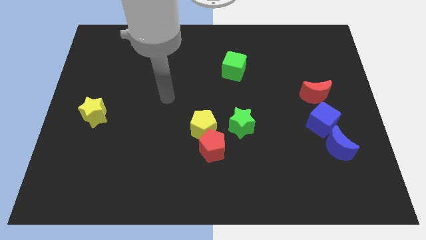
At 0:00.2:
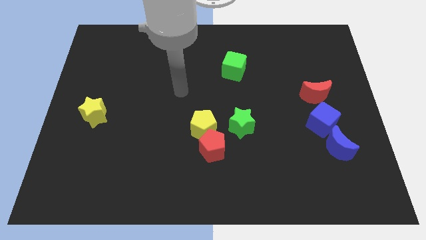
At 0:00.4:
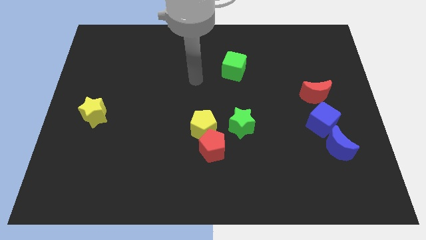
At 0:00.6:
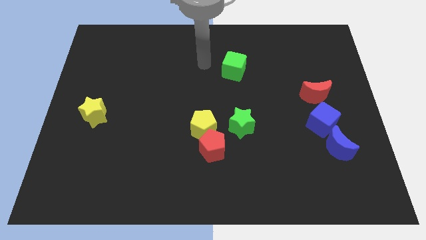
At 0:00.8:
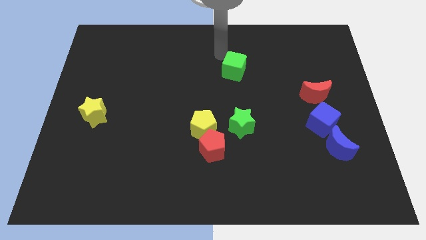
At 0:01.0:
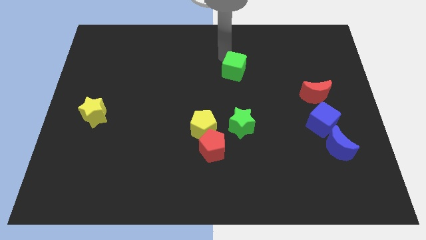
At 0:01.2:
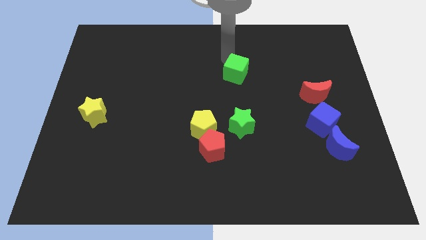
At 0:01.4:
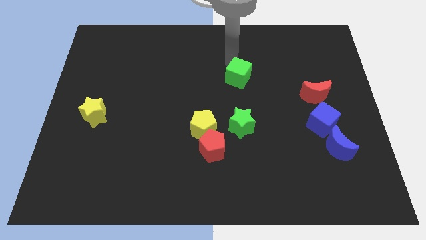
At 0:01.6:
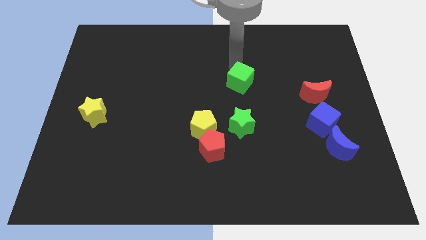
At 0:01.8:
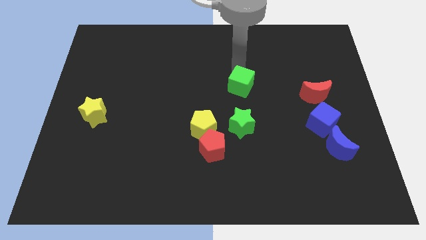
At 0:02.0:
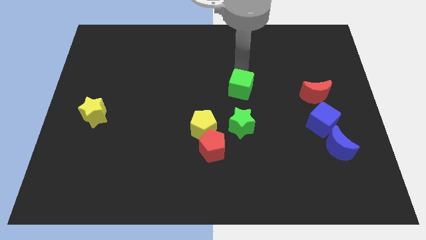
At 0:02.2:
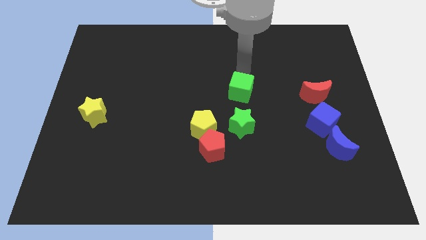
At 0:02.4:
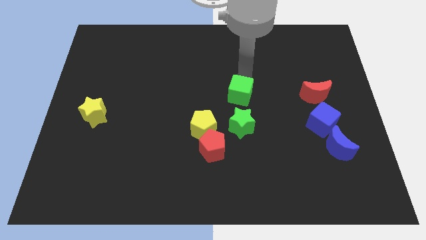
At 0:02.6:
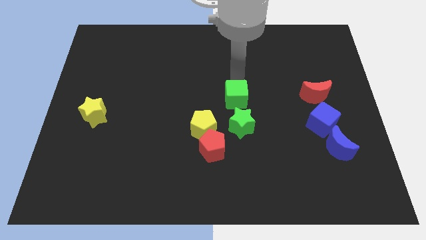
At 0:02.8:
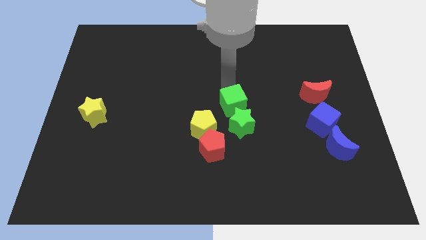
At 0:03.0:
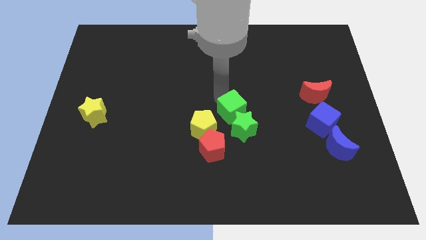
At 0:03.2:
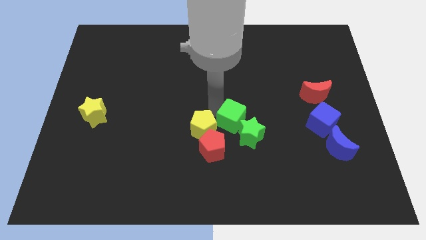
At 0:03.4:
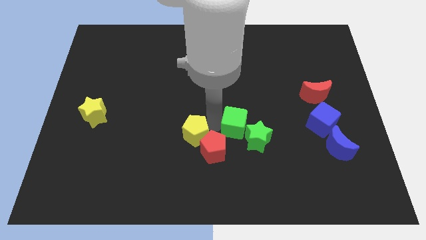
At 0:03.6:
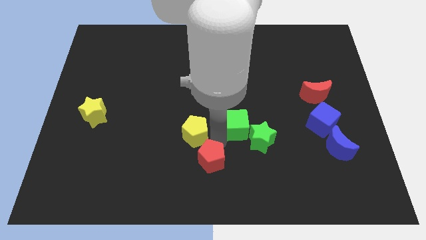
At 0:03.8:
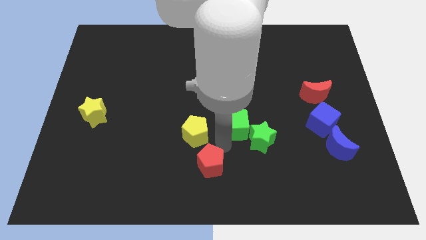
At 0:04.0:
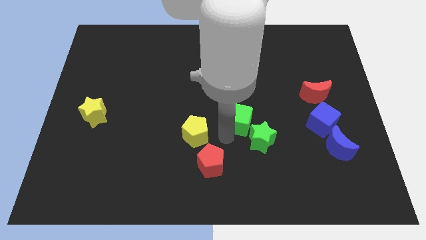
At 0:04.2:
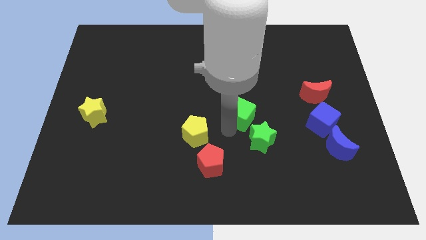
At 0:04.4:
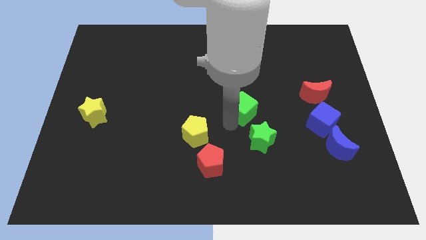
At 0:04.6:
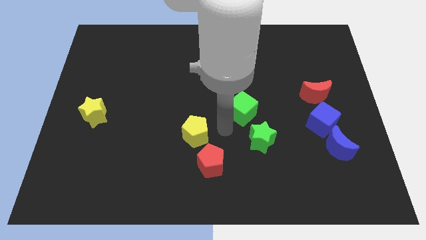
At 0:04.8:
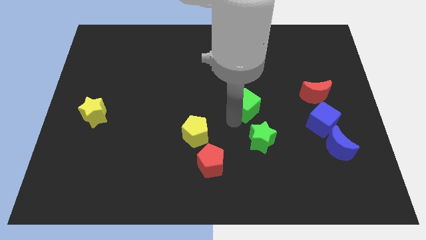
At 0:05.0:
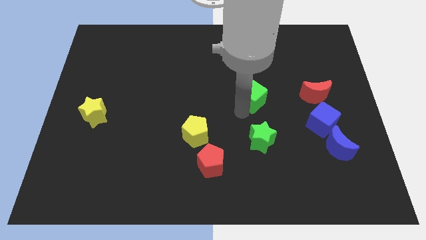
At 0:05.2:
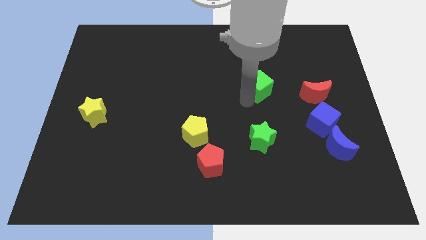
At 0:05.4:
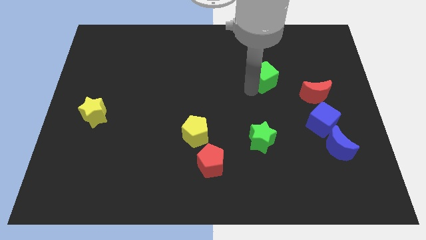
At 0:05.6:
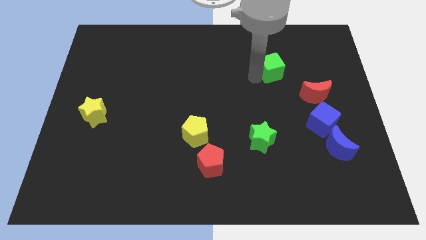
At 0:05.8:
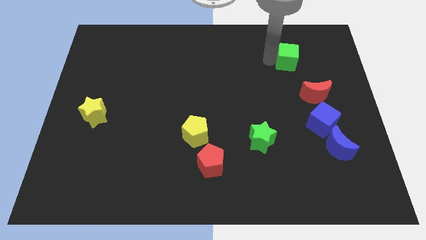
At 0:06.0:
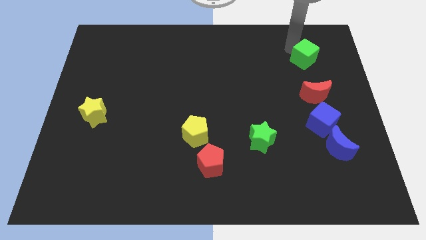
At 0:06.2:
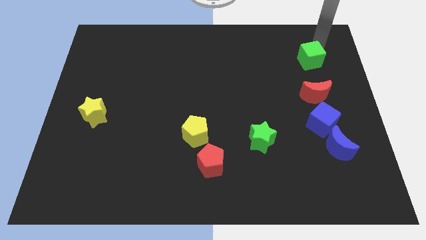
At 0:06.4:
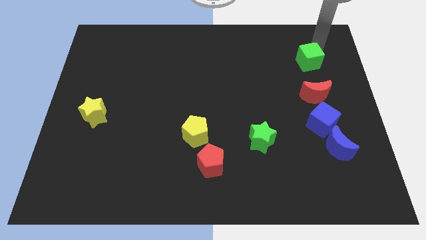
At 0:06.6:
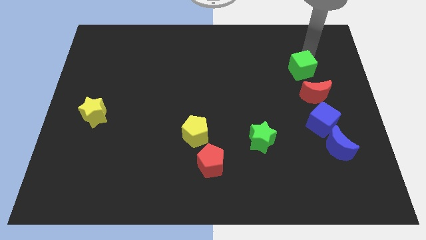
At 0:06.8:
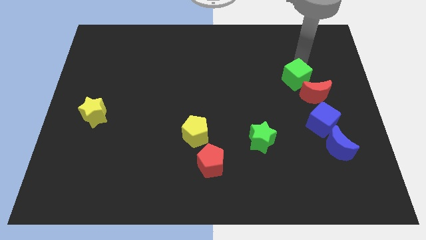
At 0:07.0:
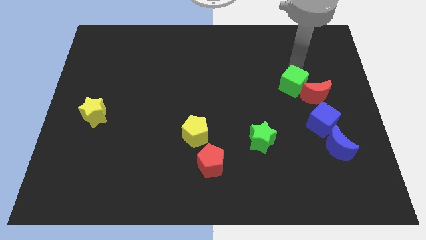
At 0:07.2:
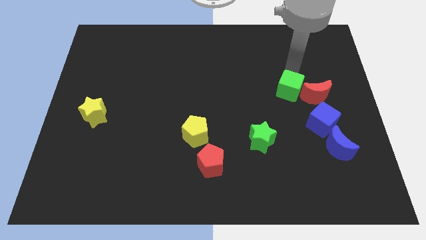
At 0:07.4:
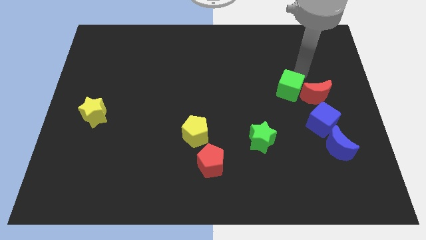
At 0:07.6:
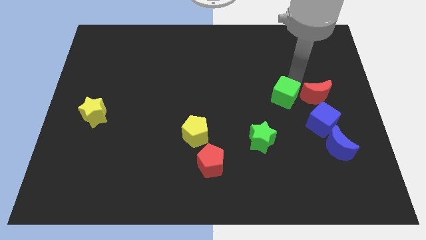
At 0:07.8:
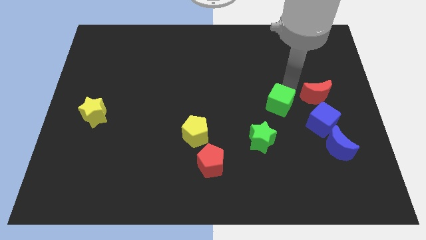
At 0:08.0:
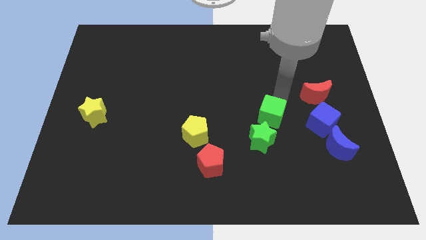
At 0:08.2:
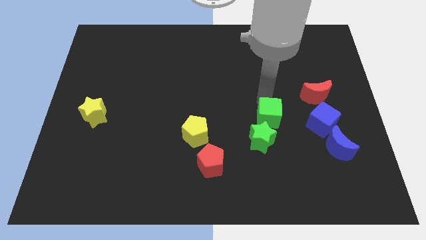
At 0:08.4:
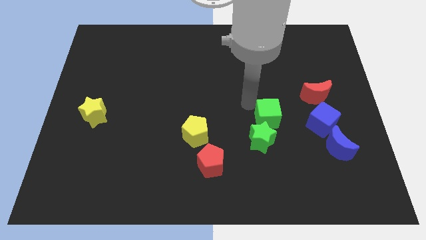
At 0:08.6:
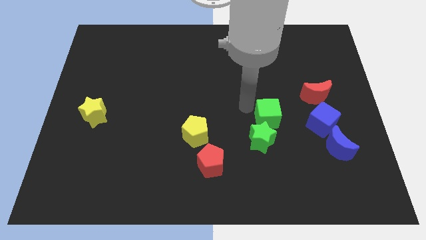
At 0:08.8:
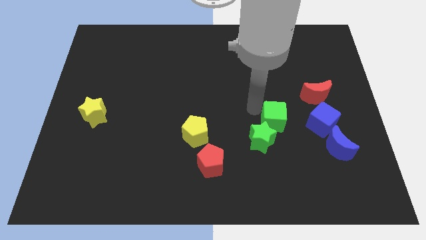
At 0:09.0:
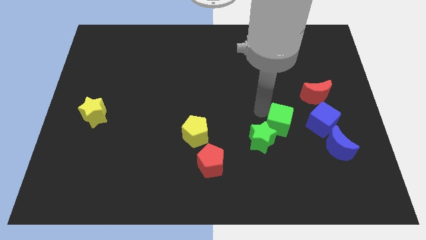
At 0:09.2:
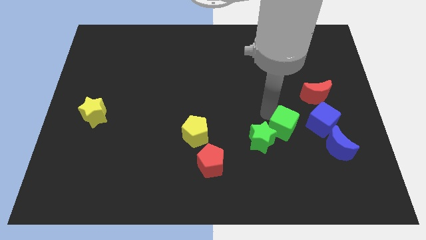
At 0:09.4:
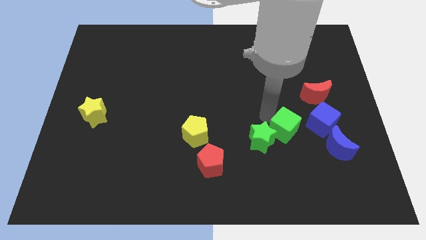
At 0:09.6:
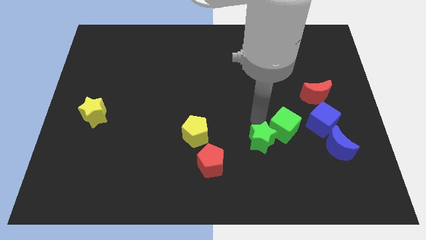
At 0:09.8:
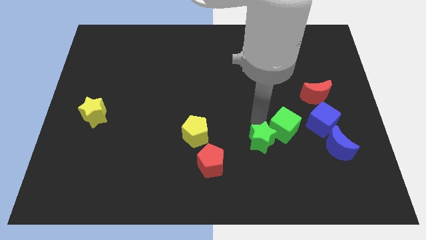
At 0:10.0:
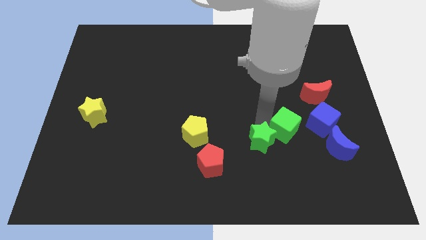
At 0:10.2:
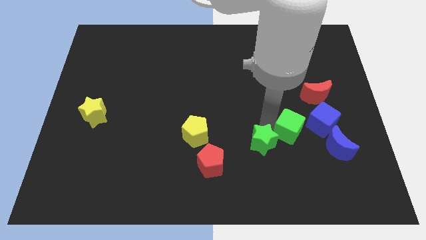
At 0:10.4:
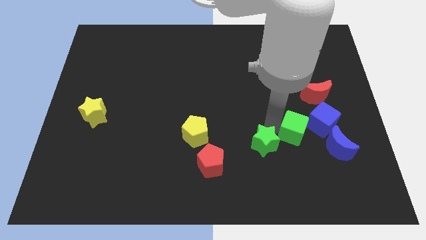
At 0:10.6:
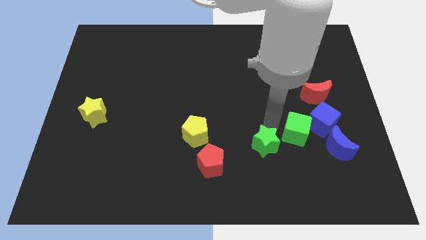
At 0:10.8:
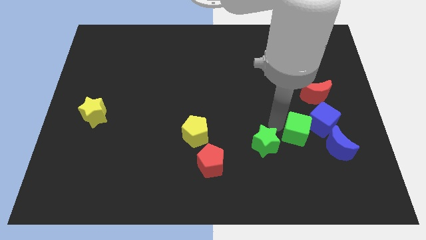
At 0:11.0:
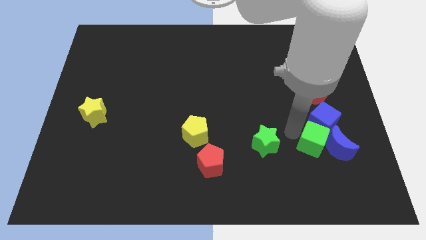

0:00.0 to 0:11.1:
slide the green cube close to the blue moon
